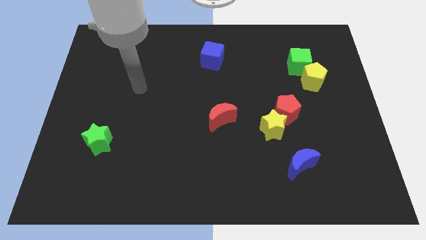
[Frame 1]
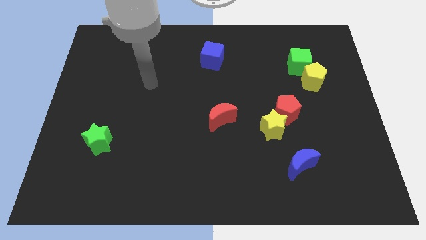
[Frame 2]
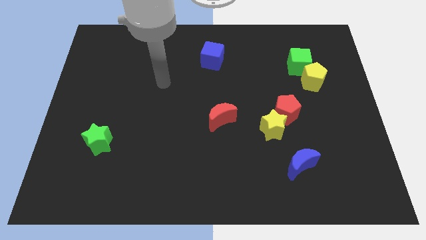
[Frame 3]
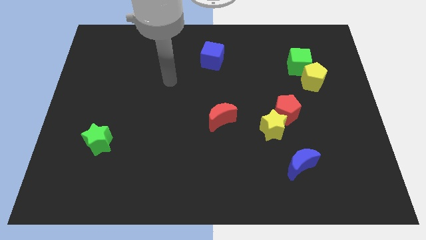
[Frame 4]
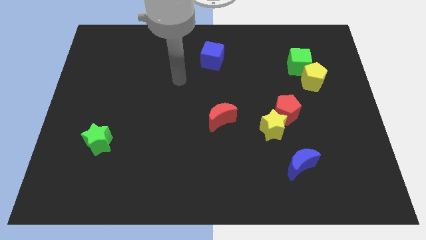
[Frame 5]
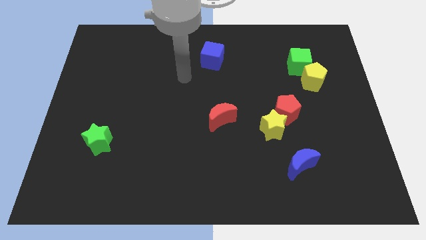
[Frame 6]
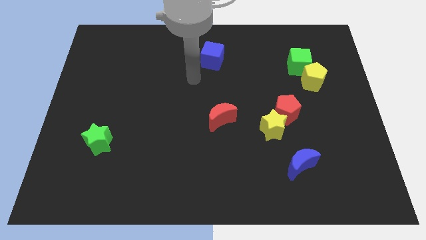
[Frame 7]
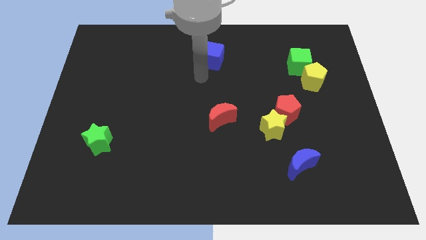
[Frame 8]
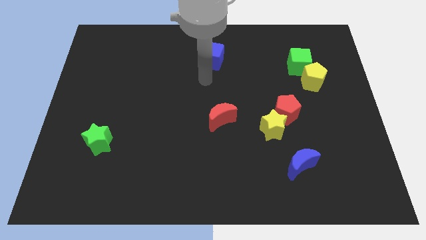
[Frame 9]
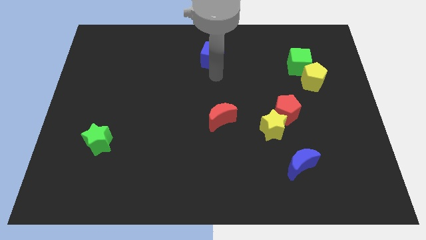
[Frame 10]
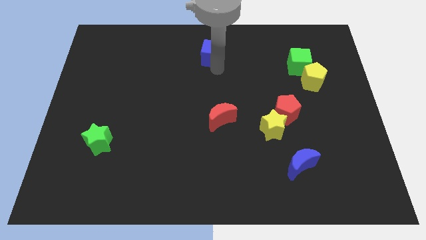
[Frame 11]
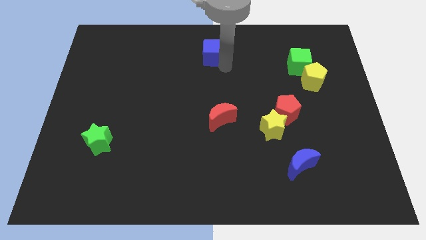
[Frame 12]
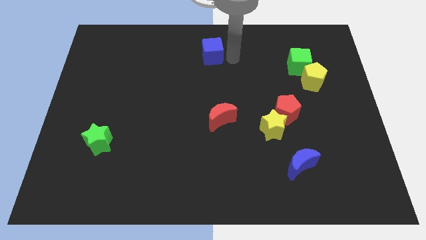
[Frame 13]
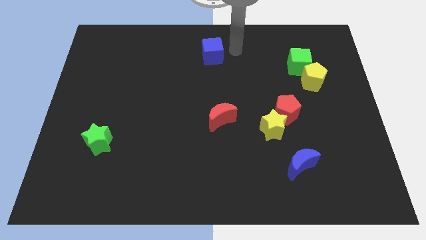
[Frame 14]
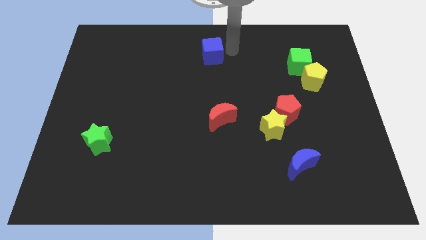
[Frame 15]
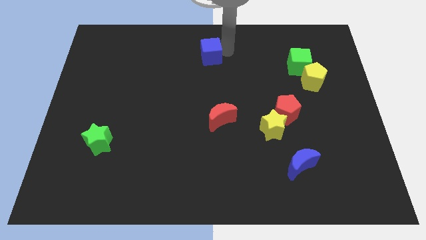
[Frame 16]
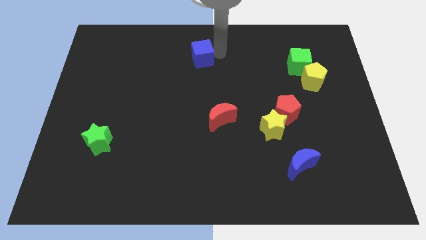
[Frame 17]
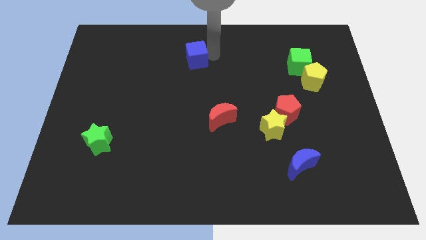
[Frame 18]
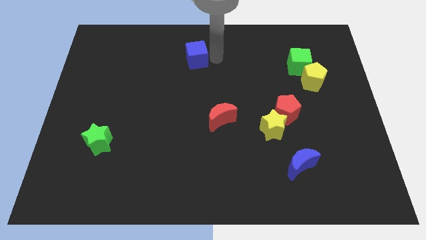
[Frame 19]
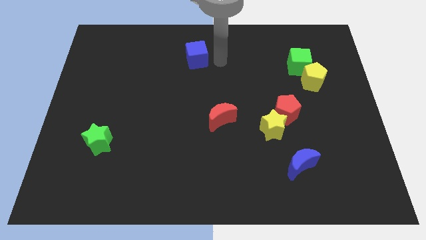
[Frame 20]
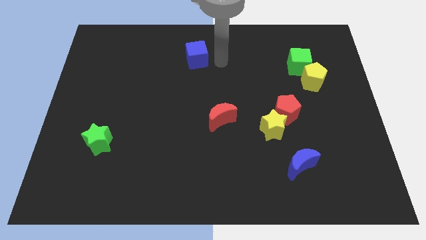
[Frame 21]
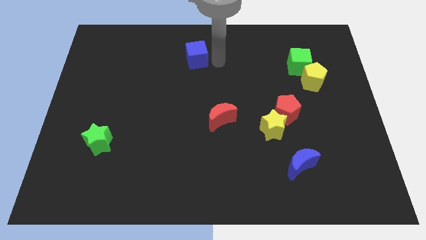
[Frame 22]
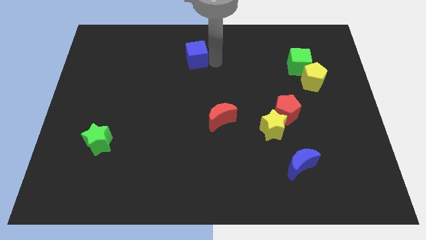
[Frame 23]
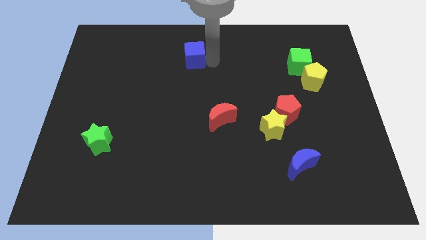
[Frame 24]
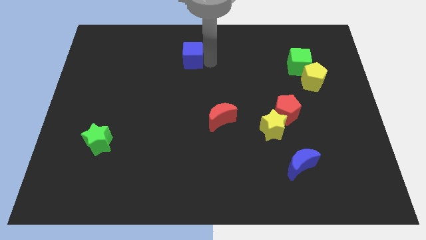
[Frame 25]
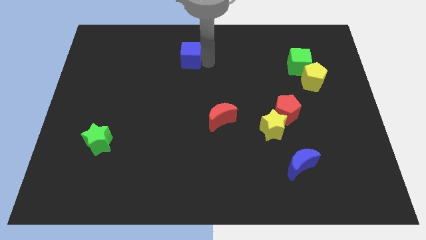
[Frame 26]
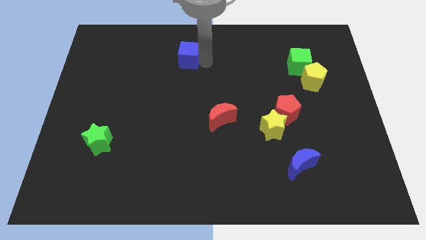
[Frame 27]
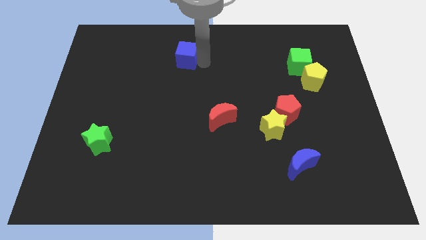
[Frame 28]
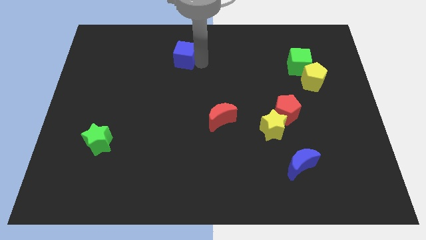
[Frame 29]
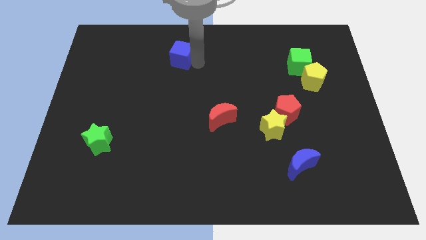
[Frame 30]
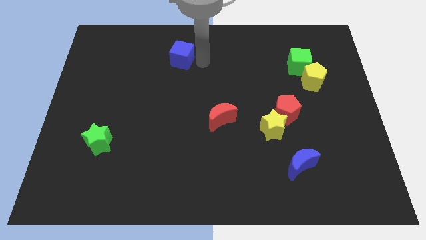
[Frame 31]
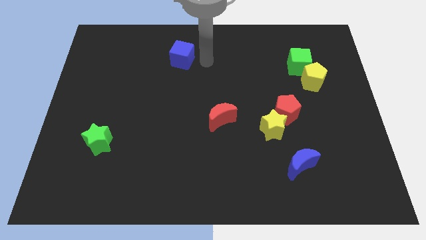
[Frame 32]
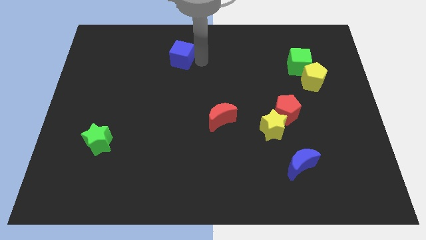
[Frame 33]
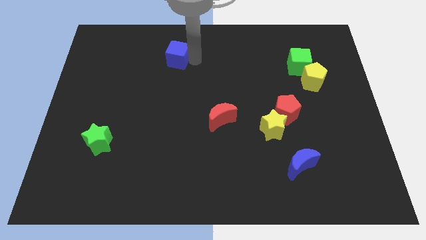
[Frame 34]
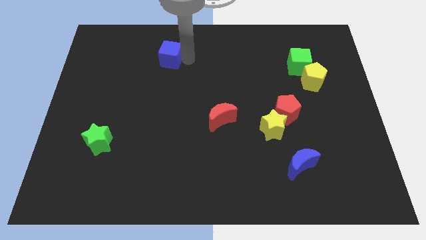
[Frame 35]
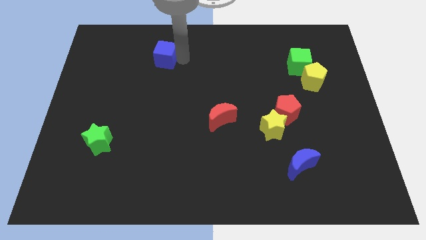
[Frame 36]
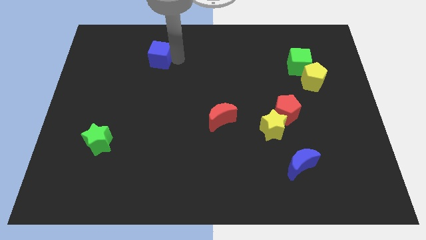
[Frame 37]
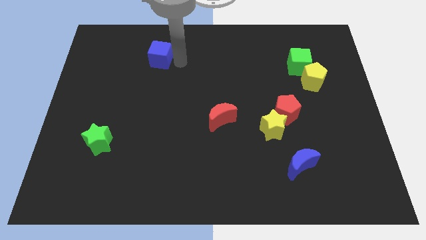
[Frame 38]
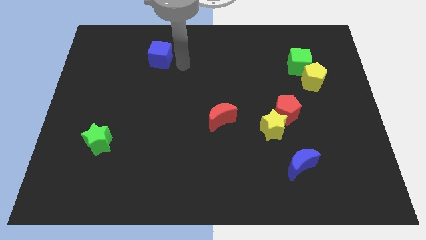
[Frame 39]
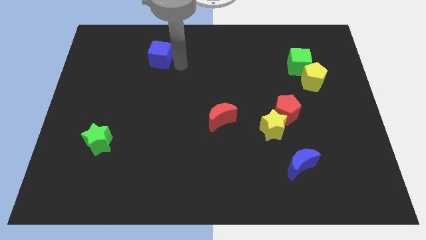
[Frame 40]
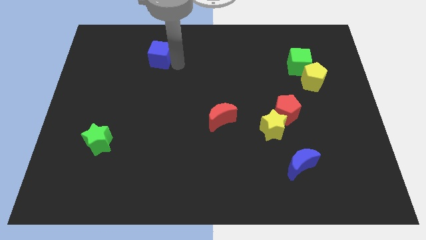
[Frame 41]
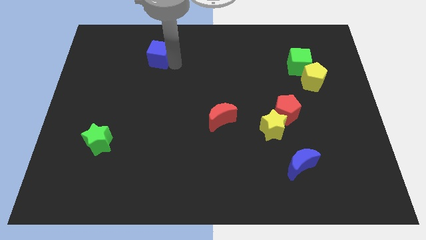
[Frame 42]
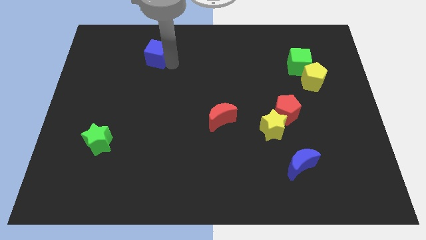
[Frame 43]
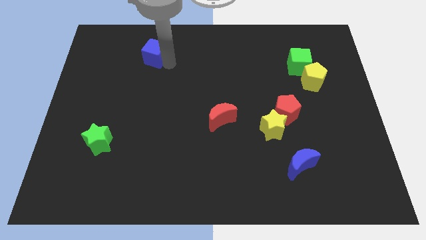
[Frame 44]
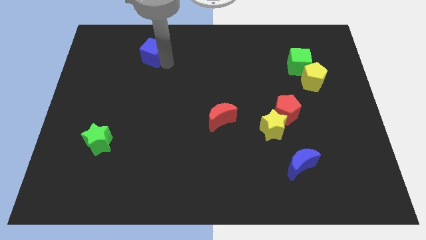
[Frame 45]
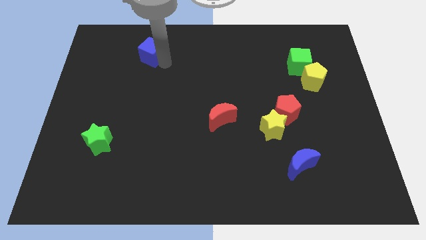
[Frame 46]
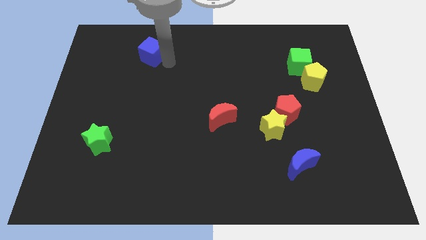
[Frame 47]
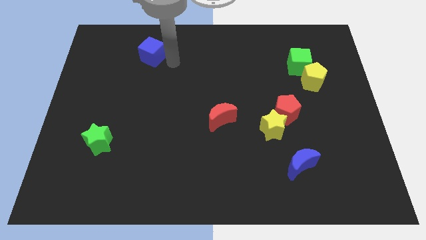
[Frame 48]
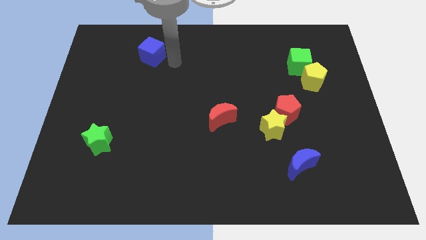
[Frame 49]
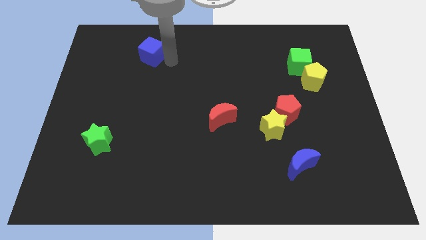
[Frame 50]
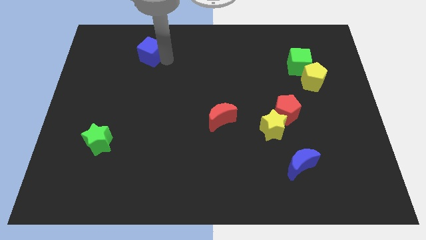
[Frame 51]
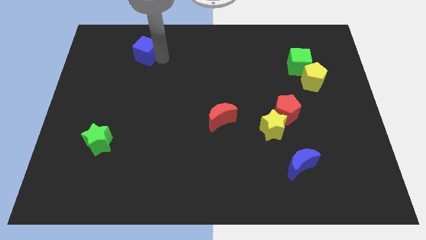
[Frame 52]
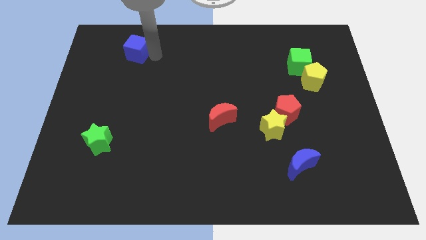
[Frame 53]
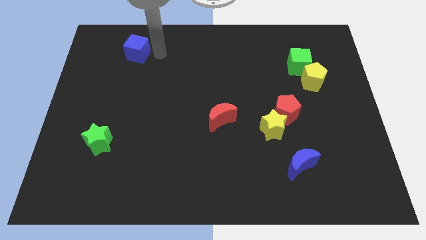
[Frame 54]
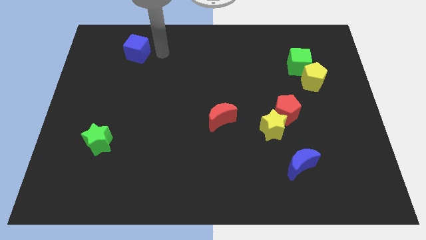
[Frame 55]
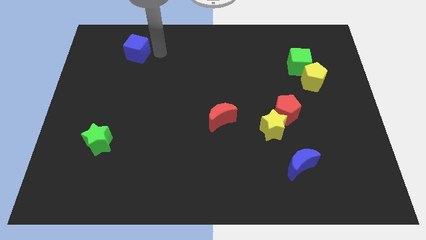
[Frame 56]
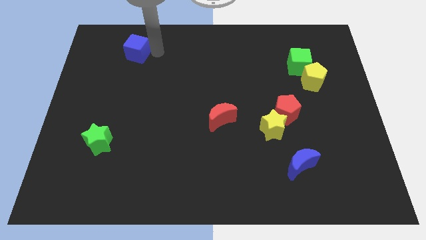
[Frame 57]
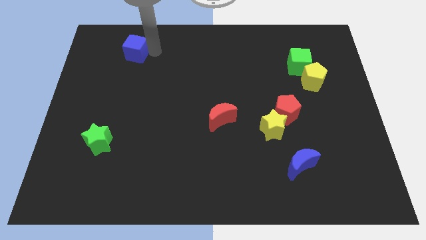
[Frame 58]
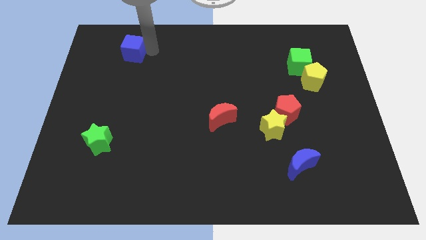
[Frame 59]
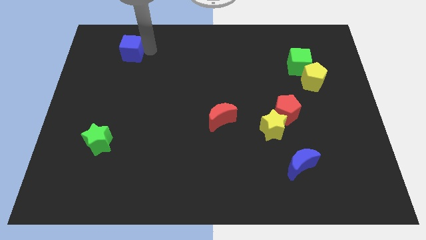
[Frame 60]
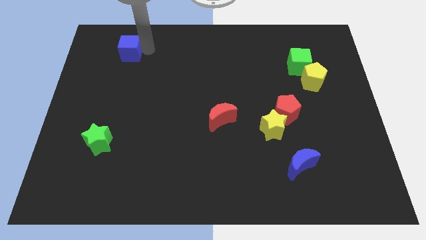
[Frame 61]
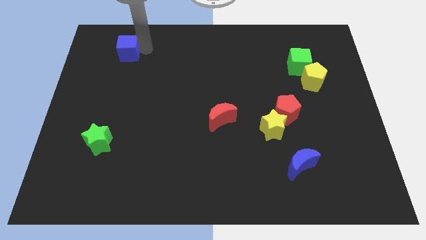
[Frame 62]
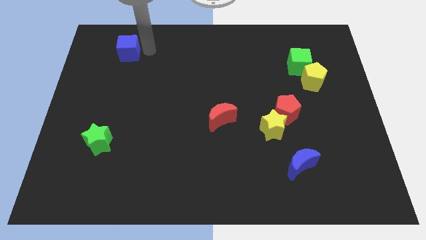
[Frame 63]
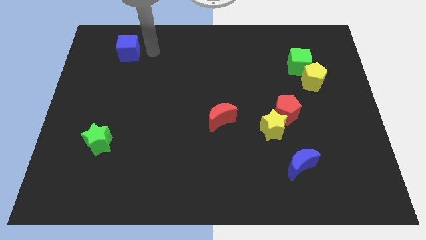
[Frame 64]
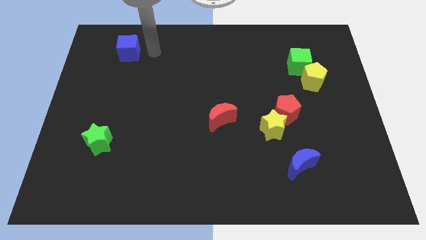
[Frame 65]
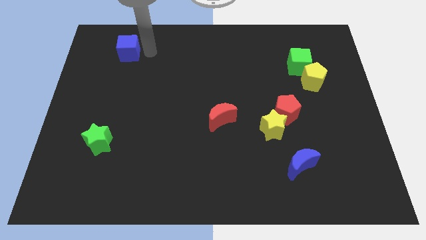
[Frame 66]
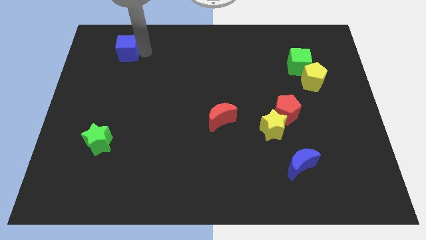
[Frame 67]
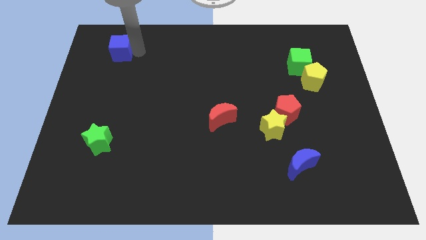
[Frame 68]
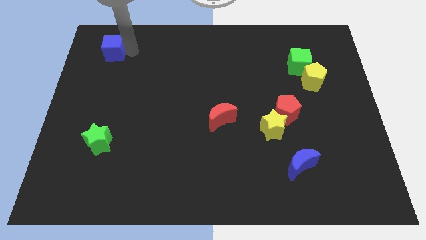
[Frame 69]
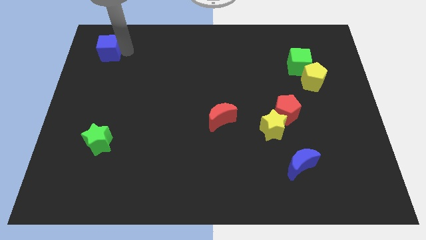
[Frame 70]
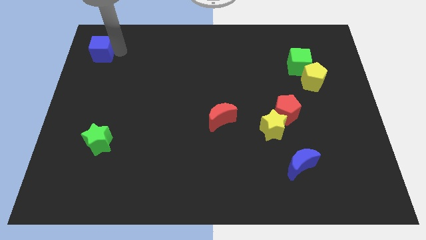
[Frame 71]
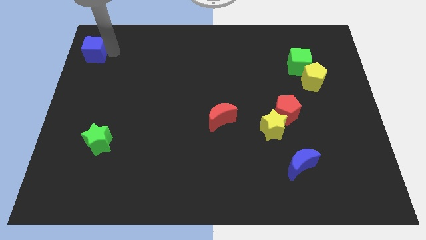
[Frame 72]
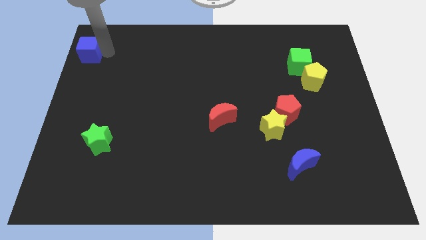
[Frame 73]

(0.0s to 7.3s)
slide the blue cube to the top left
